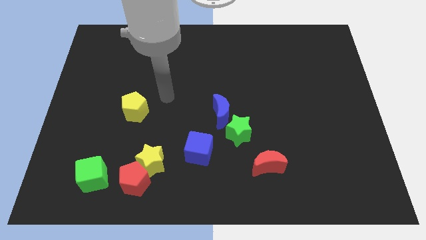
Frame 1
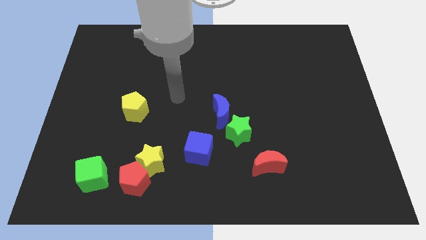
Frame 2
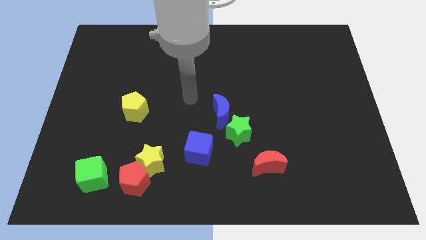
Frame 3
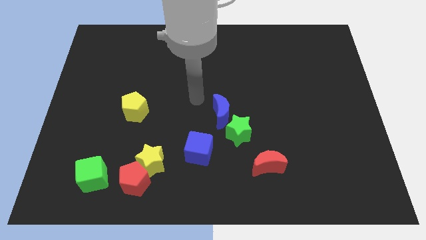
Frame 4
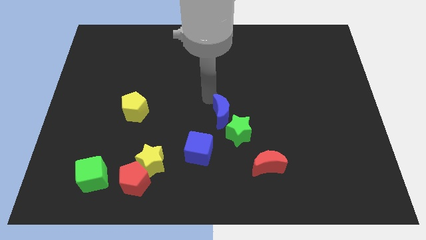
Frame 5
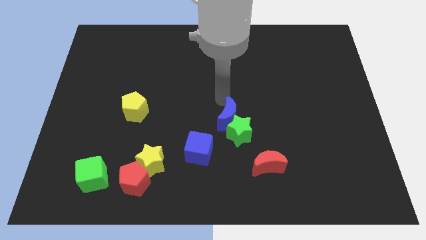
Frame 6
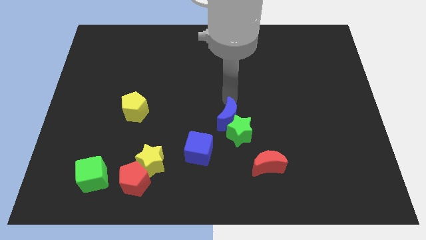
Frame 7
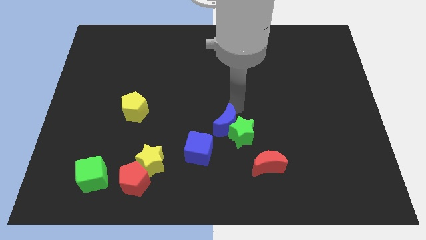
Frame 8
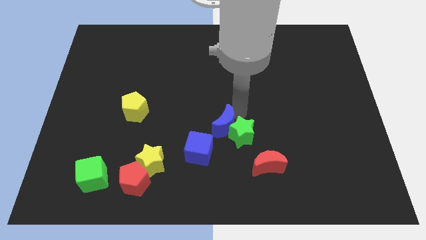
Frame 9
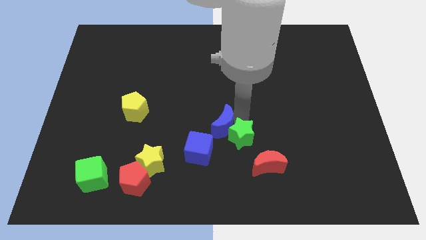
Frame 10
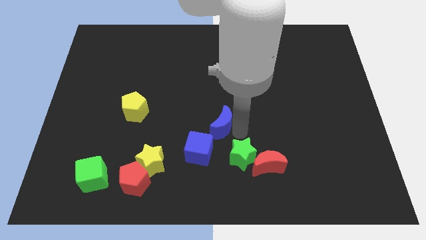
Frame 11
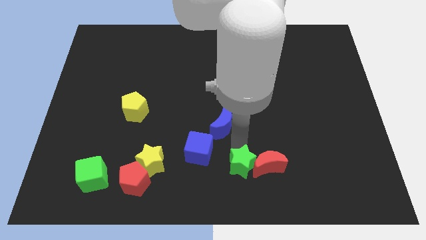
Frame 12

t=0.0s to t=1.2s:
pull the blue moon apart from the green star

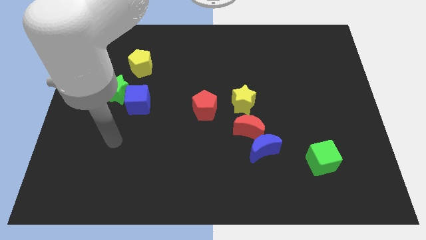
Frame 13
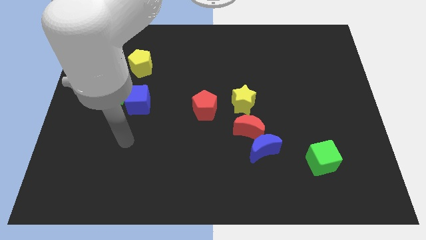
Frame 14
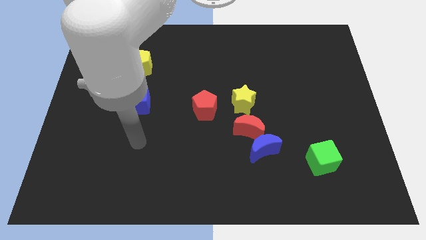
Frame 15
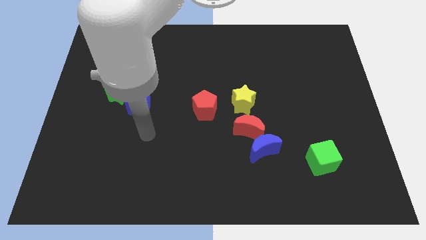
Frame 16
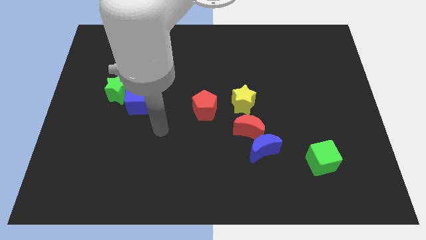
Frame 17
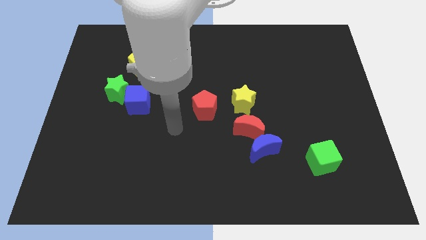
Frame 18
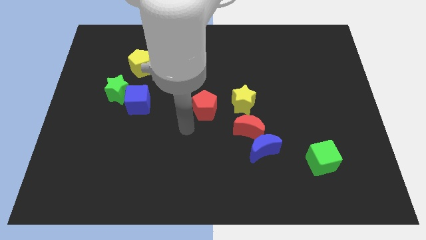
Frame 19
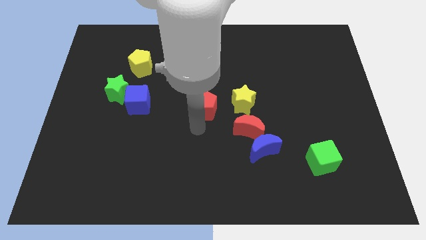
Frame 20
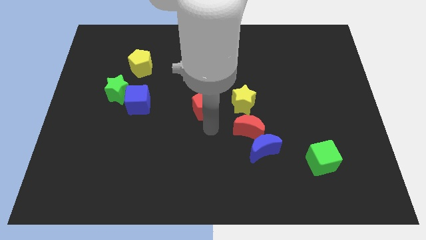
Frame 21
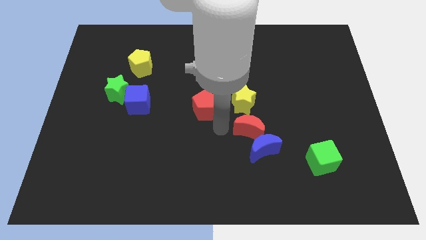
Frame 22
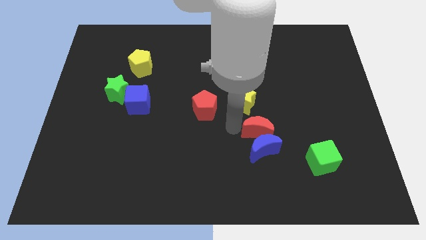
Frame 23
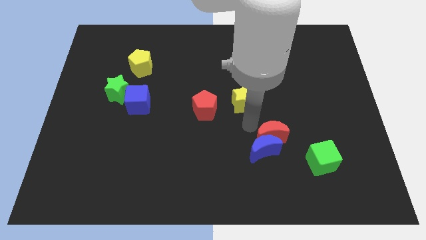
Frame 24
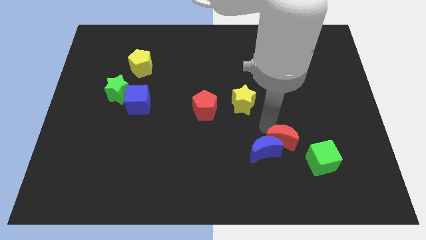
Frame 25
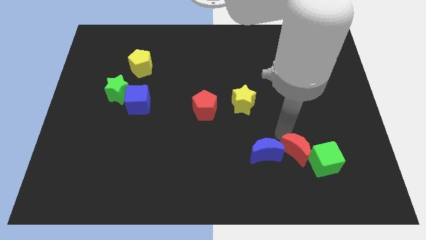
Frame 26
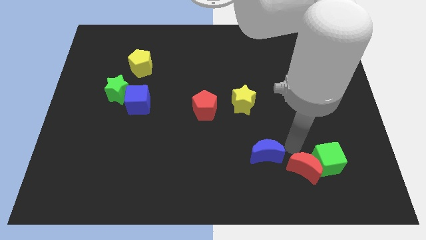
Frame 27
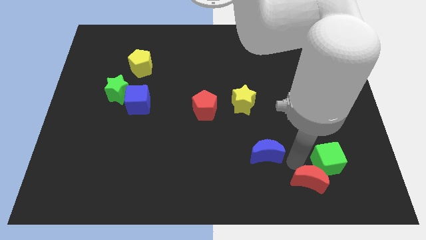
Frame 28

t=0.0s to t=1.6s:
pull the blue moon apart from the red moon

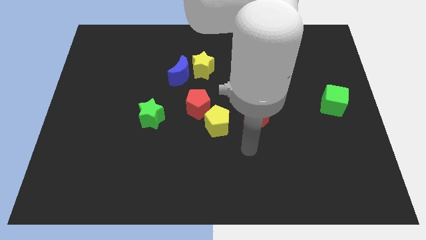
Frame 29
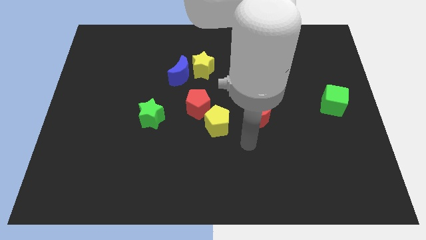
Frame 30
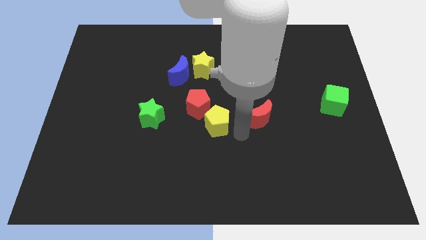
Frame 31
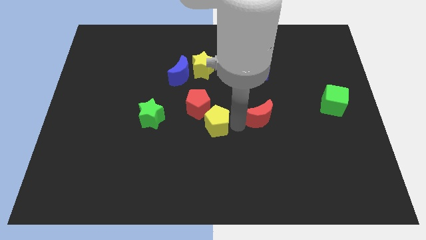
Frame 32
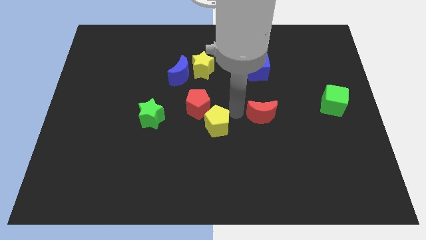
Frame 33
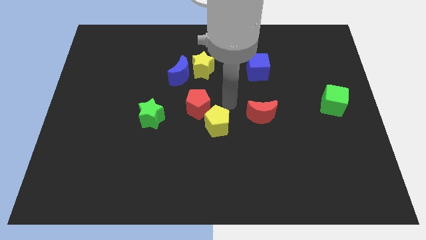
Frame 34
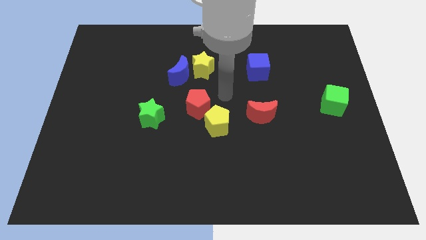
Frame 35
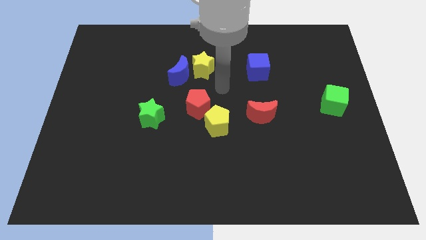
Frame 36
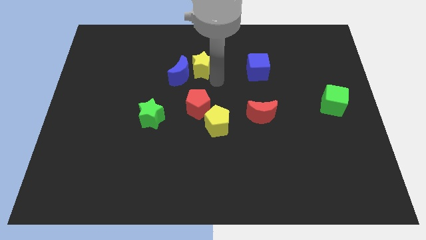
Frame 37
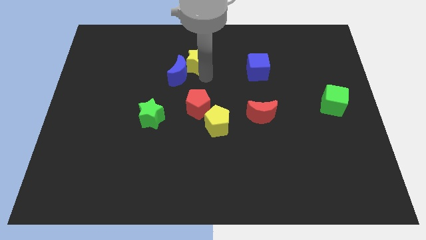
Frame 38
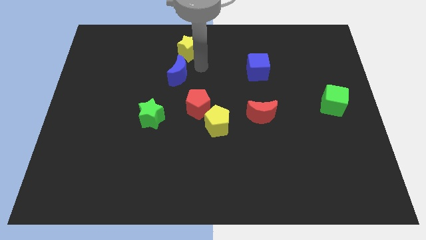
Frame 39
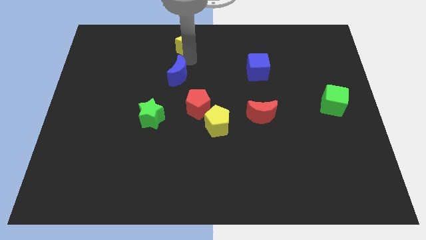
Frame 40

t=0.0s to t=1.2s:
pull the blue moon apart from the yellow star

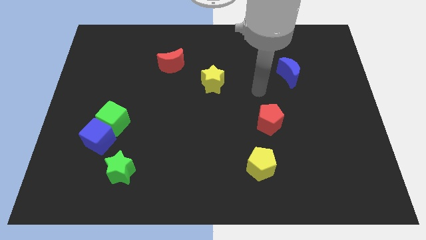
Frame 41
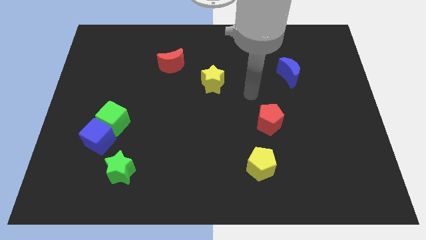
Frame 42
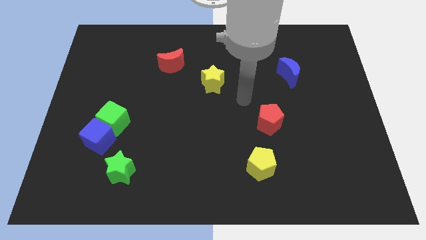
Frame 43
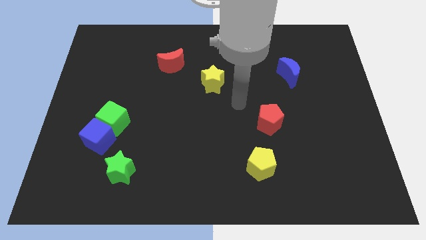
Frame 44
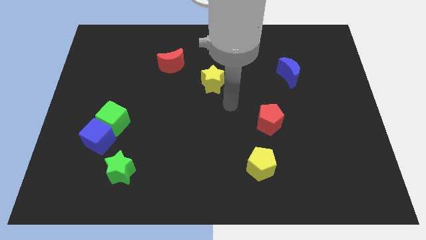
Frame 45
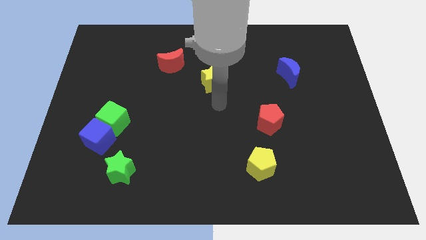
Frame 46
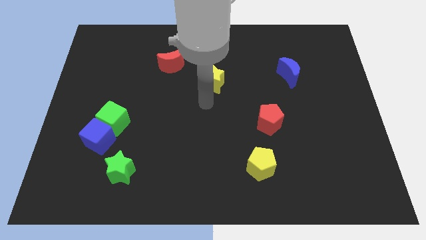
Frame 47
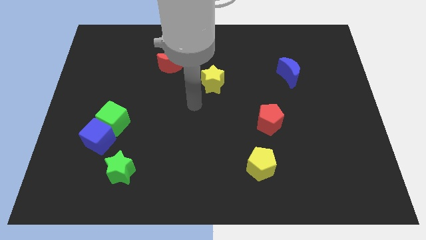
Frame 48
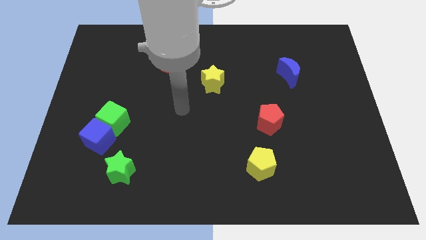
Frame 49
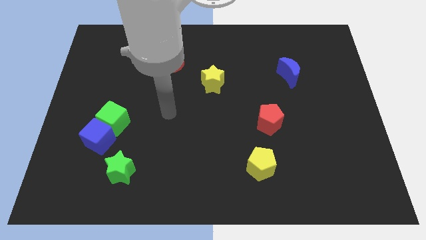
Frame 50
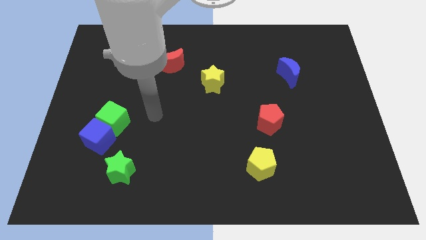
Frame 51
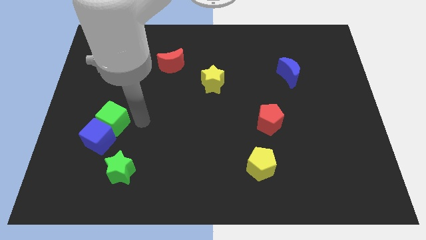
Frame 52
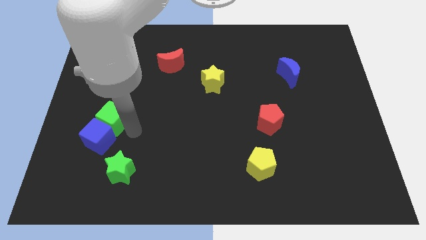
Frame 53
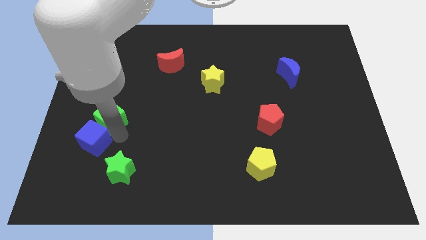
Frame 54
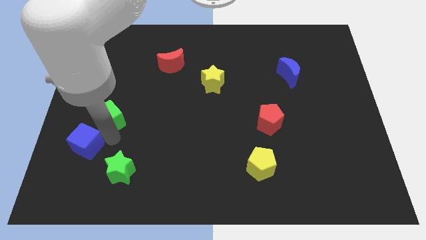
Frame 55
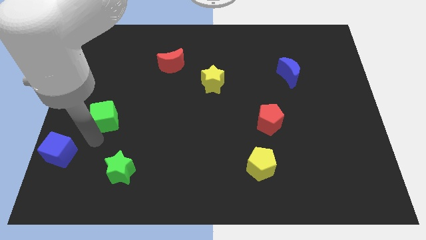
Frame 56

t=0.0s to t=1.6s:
pull the green cube apart from the blue cube

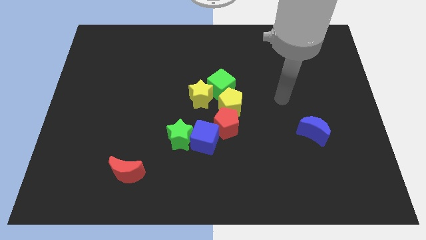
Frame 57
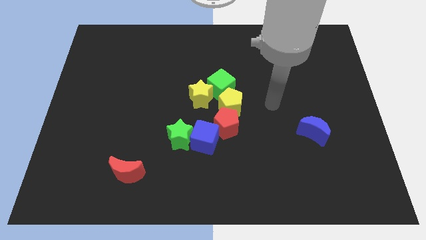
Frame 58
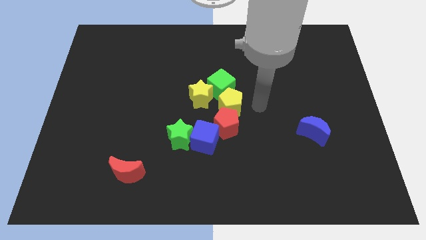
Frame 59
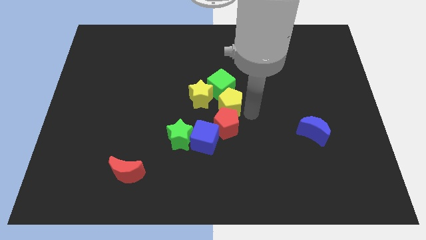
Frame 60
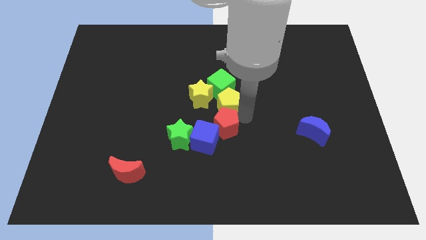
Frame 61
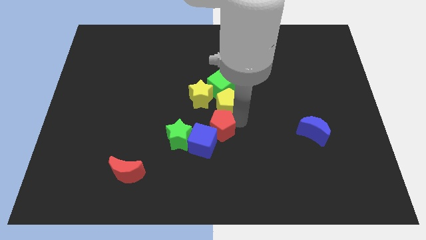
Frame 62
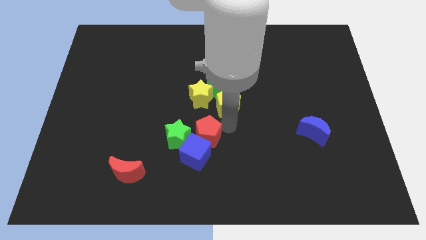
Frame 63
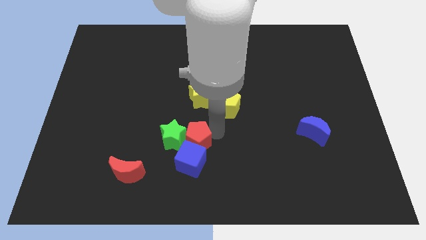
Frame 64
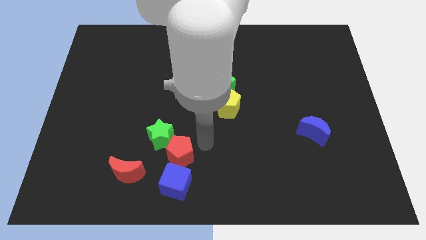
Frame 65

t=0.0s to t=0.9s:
move the green star away from the blue cube

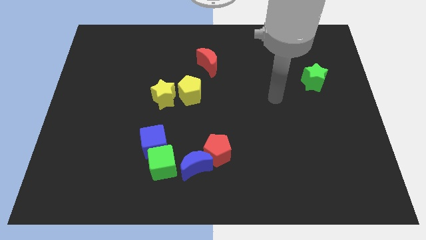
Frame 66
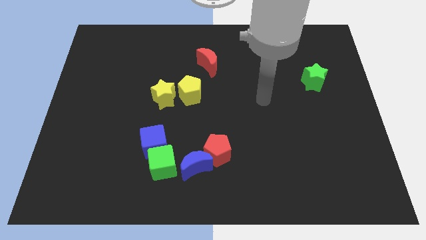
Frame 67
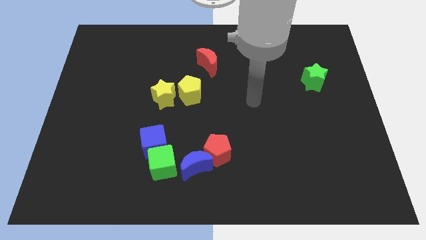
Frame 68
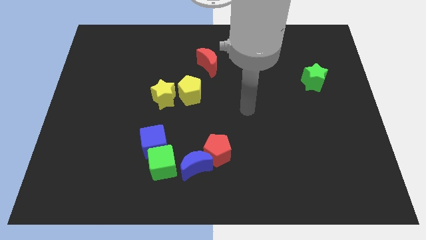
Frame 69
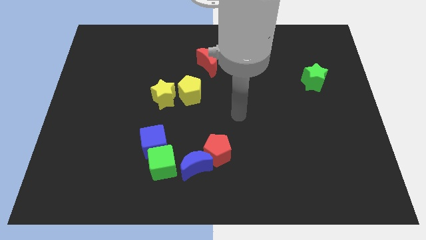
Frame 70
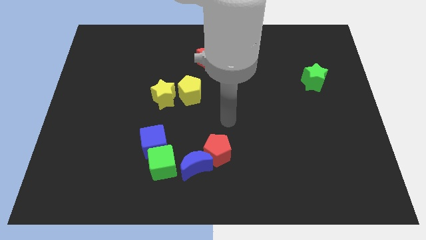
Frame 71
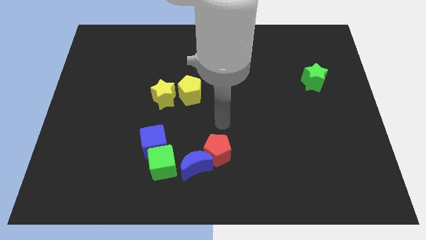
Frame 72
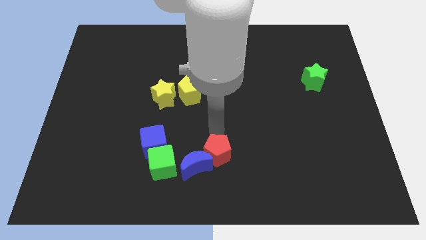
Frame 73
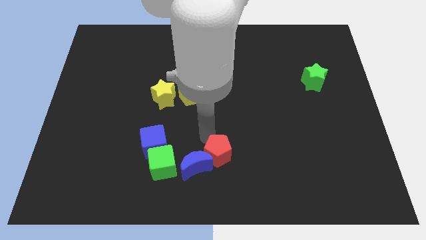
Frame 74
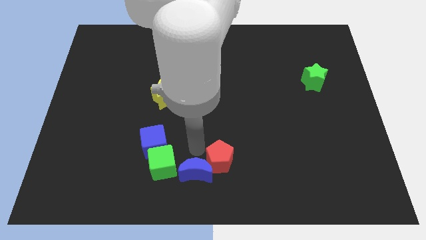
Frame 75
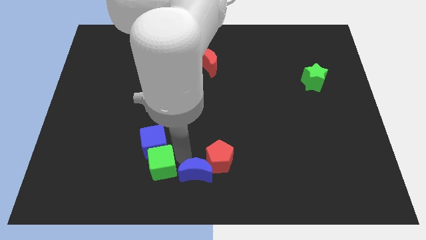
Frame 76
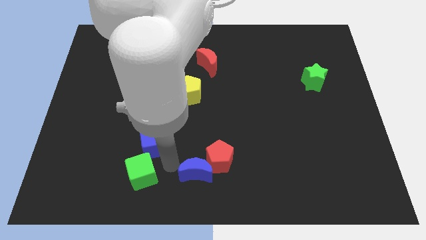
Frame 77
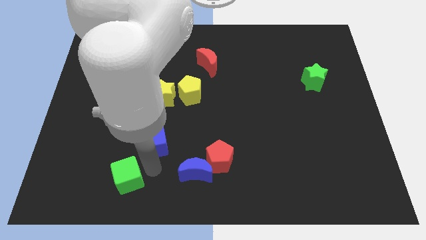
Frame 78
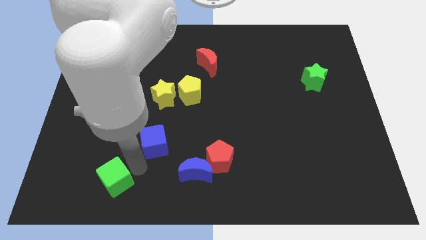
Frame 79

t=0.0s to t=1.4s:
separate the blue cube from the green cube

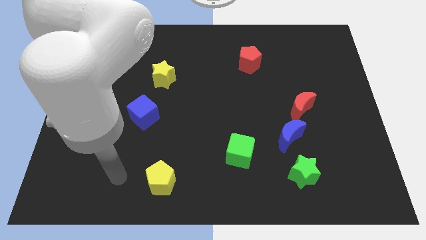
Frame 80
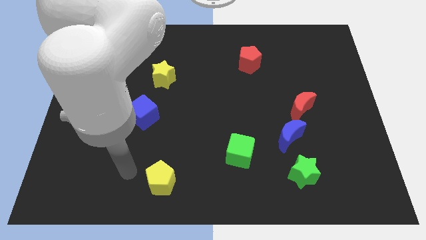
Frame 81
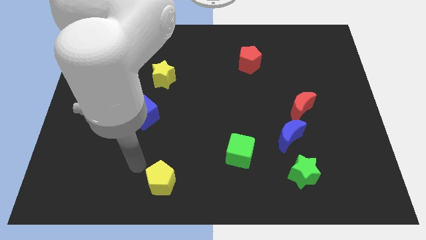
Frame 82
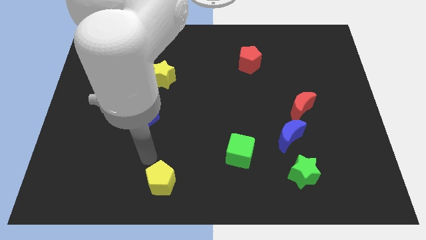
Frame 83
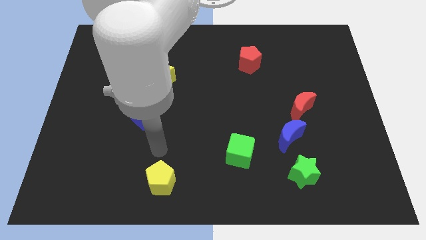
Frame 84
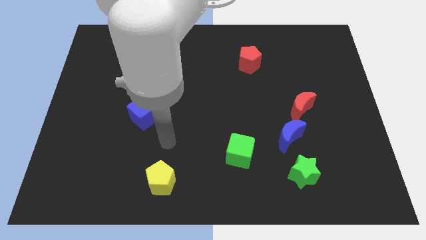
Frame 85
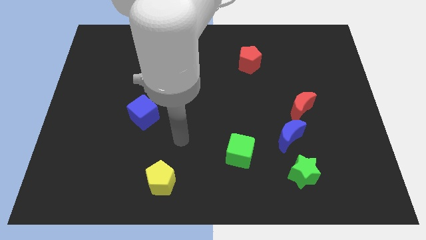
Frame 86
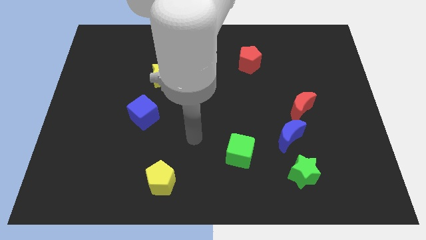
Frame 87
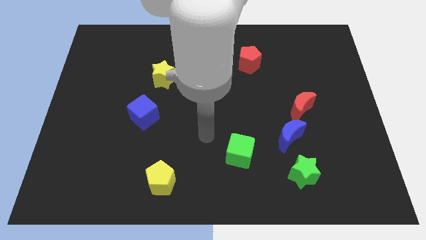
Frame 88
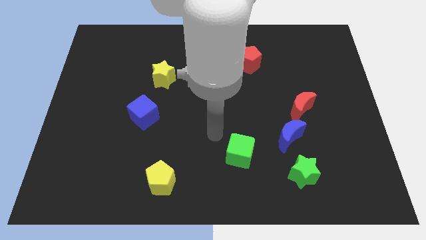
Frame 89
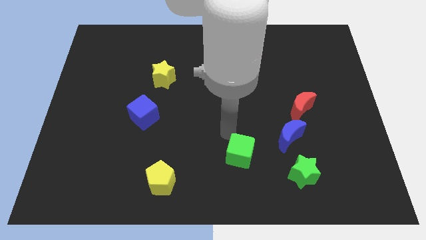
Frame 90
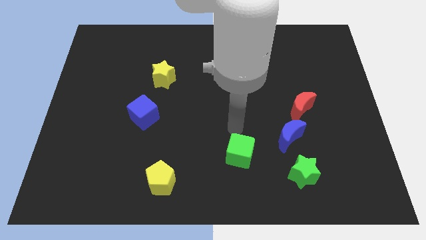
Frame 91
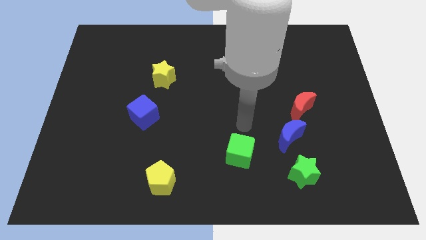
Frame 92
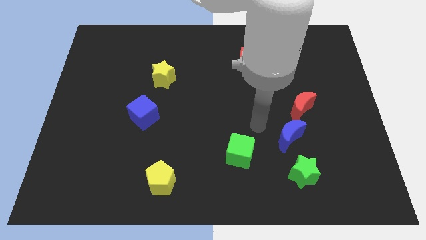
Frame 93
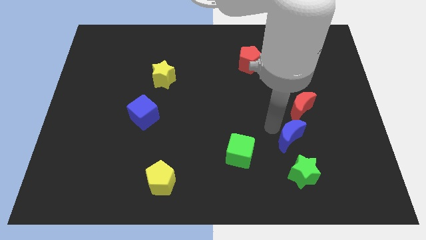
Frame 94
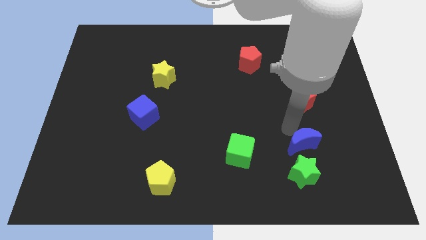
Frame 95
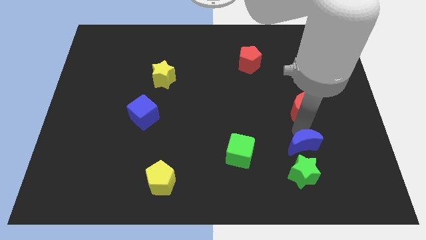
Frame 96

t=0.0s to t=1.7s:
move the red moon away from the blue moon
